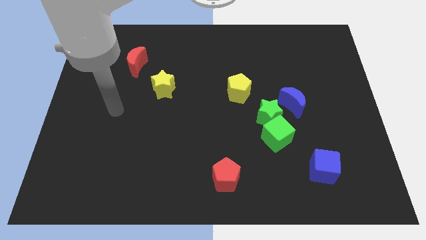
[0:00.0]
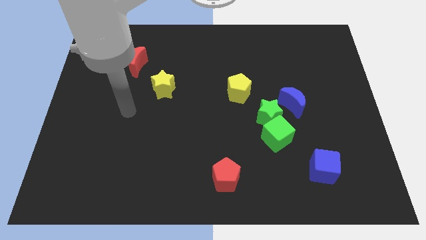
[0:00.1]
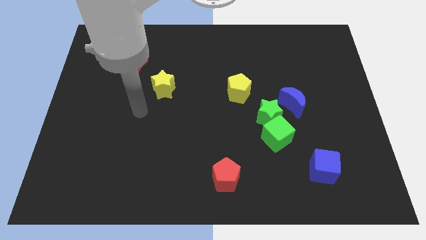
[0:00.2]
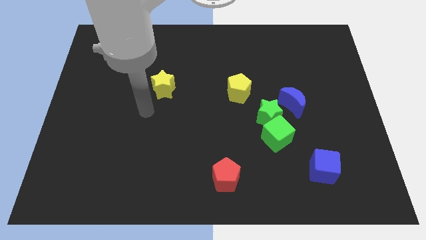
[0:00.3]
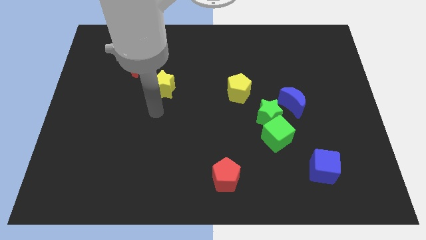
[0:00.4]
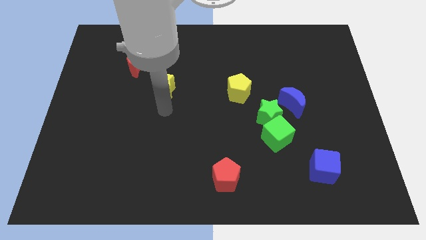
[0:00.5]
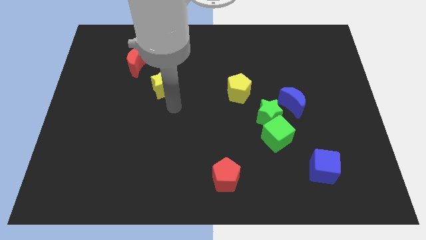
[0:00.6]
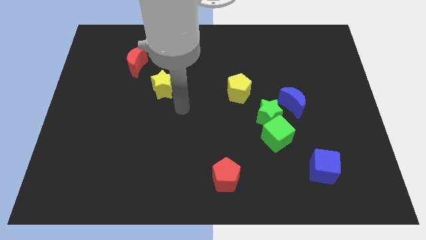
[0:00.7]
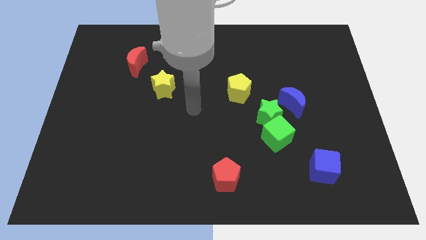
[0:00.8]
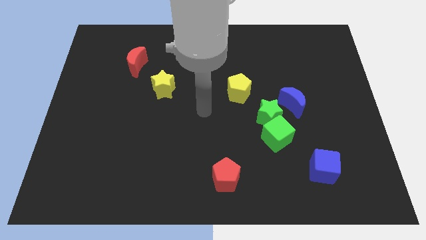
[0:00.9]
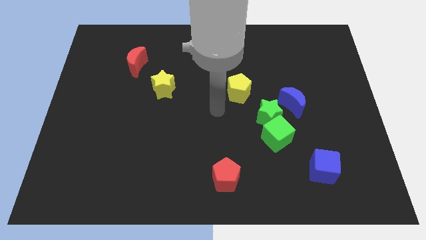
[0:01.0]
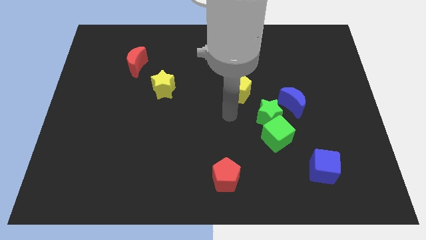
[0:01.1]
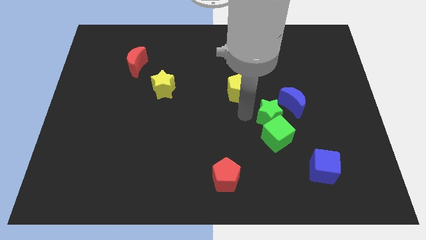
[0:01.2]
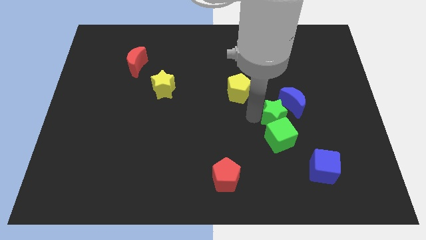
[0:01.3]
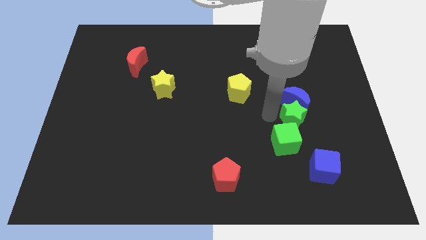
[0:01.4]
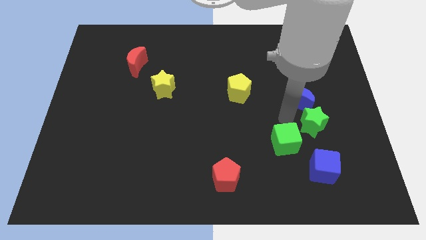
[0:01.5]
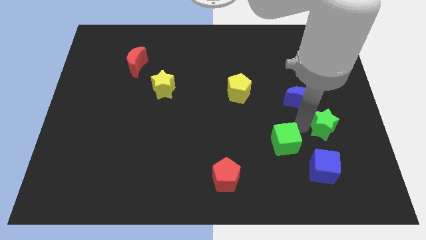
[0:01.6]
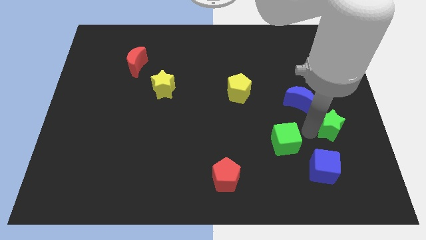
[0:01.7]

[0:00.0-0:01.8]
pull the green cube apart from the green star

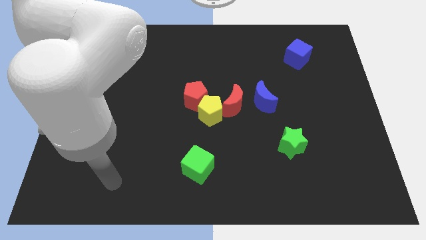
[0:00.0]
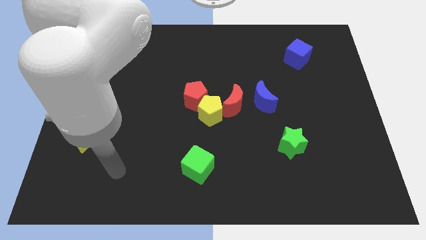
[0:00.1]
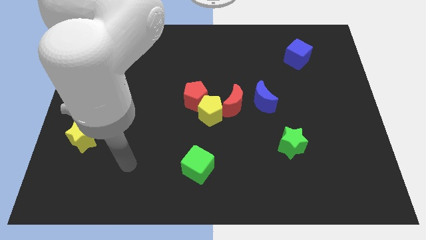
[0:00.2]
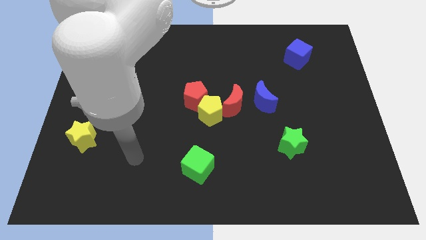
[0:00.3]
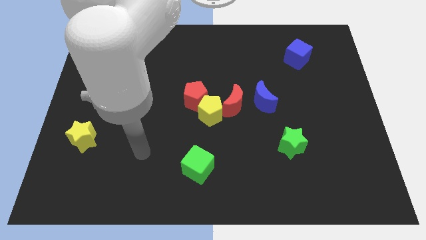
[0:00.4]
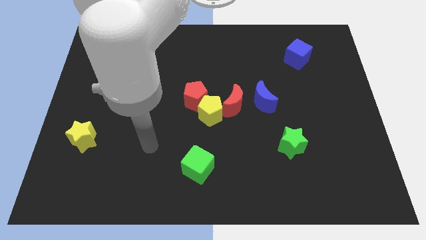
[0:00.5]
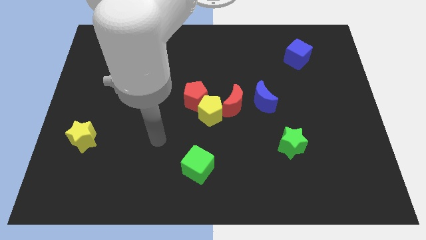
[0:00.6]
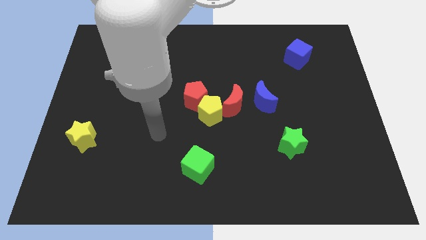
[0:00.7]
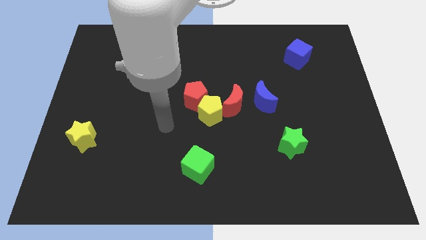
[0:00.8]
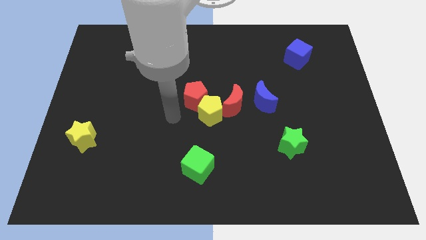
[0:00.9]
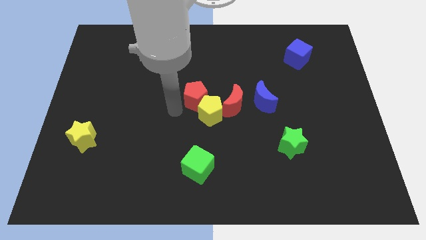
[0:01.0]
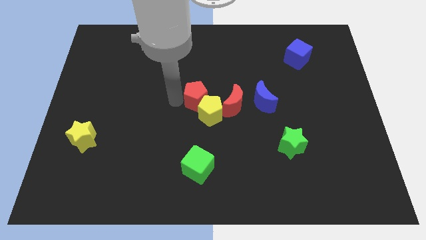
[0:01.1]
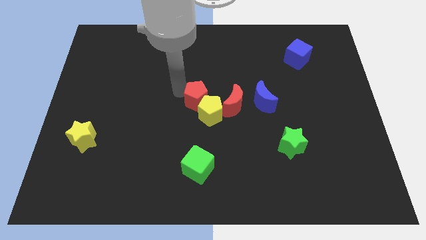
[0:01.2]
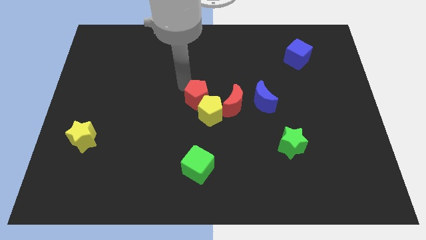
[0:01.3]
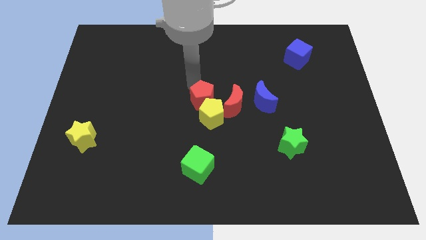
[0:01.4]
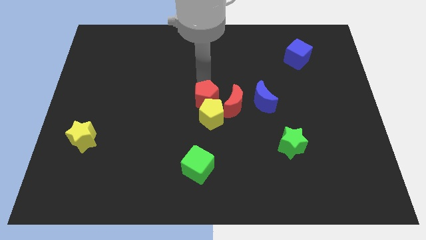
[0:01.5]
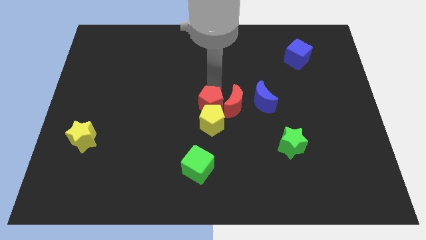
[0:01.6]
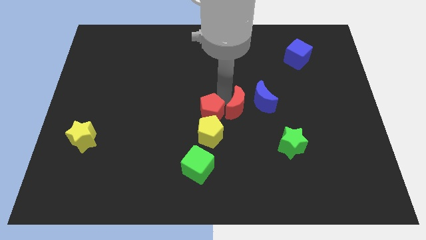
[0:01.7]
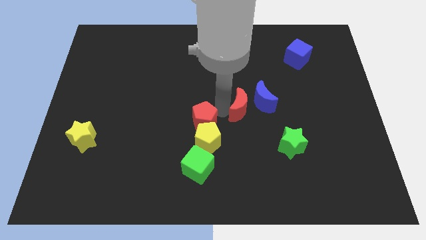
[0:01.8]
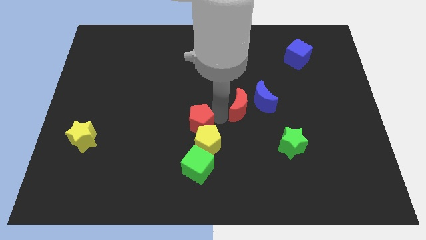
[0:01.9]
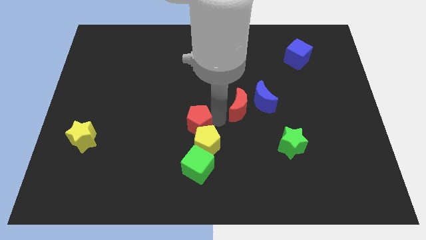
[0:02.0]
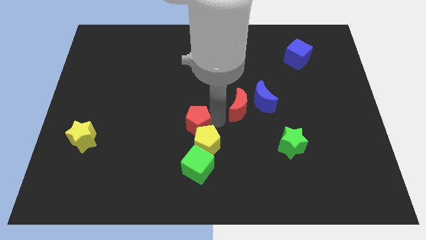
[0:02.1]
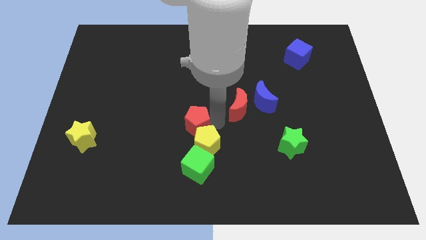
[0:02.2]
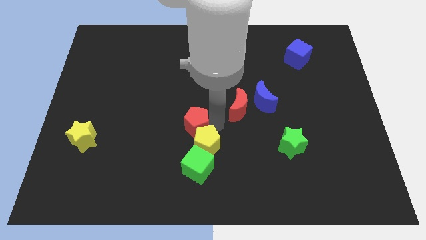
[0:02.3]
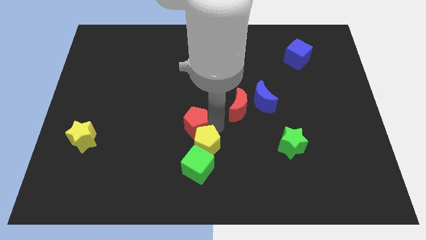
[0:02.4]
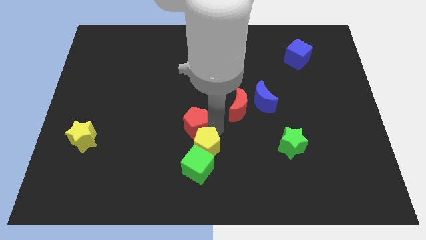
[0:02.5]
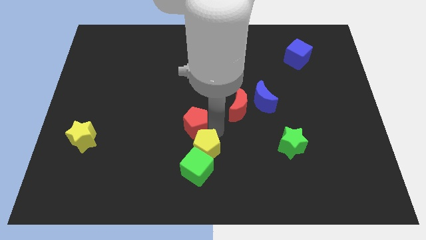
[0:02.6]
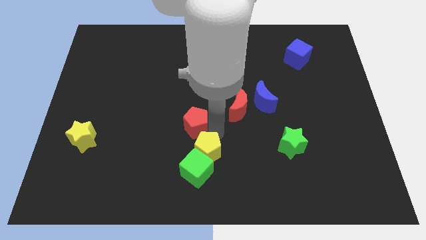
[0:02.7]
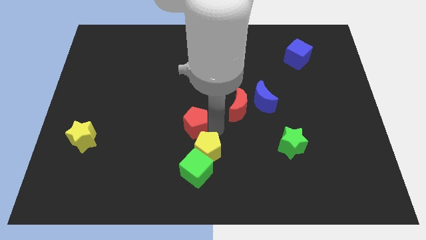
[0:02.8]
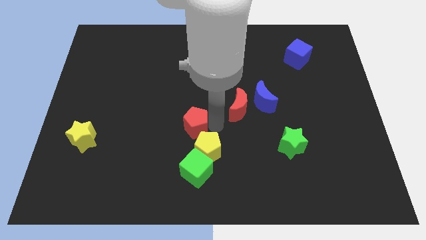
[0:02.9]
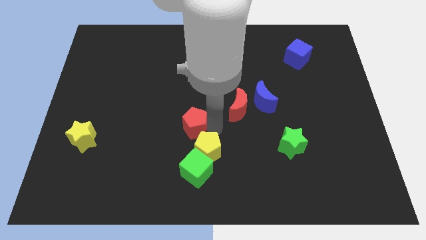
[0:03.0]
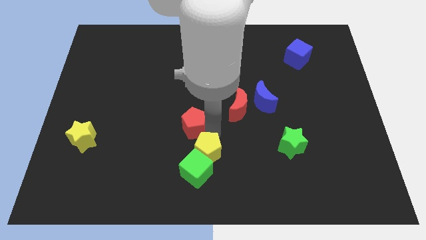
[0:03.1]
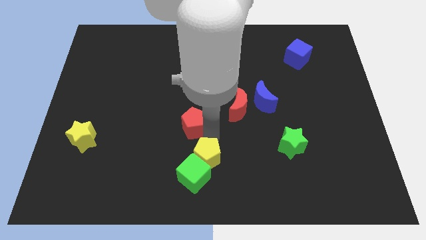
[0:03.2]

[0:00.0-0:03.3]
separate the yellow pentagon from the red pentagon and red moon

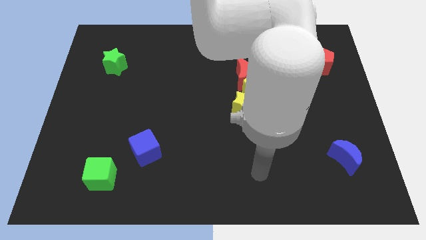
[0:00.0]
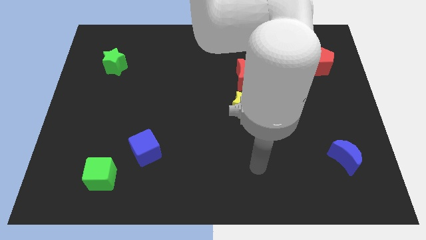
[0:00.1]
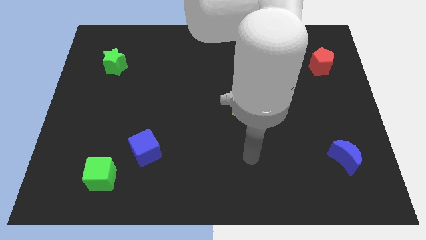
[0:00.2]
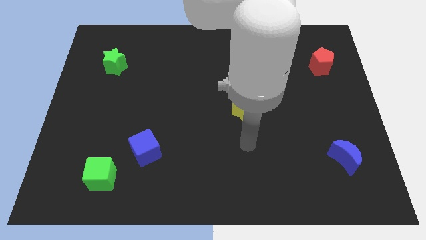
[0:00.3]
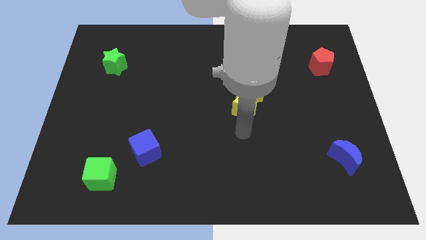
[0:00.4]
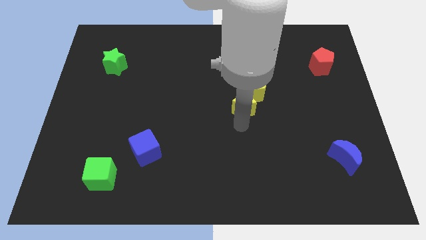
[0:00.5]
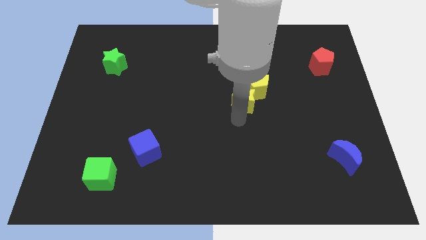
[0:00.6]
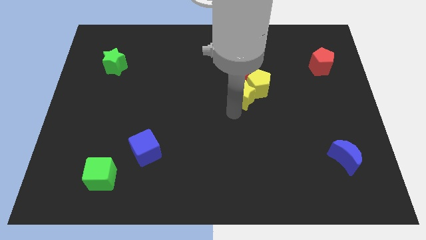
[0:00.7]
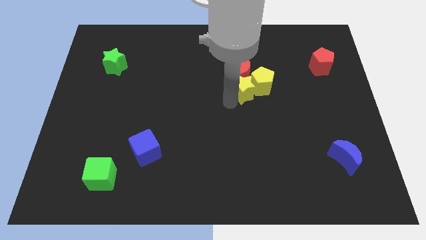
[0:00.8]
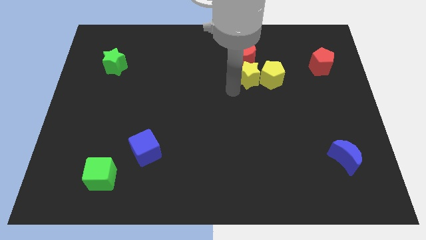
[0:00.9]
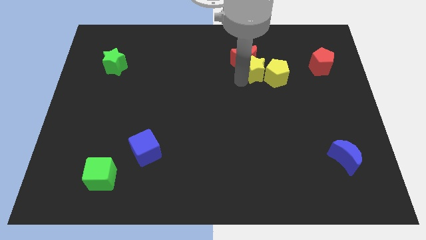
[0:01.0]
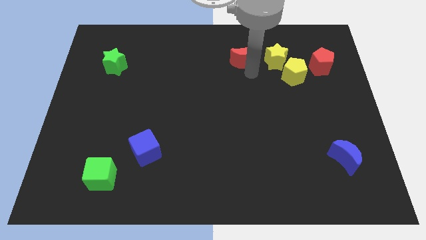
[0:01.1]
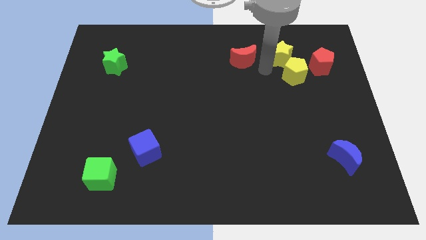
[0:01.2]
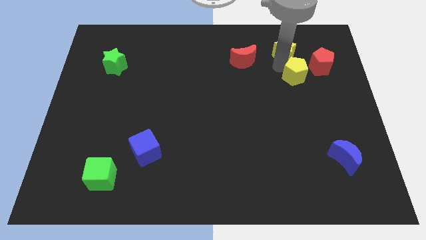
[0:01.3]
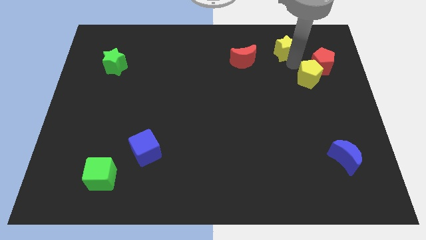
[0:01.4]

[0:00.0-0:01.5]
move the yellow pentagon away from the red moon and yellow star

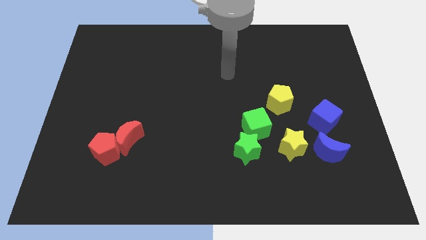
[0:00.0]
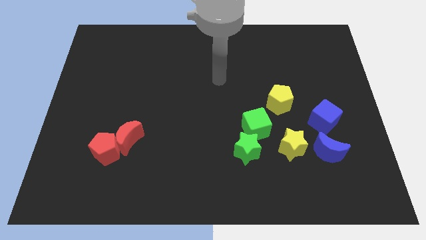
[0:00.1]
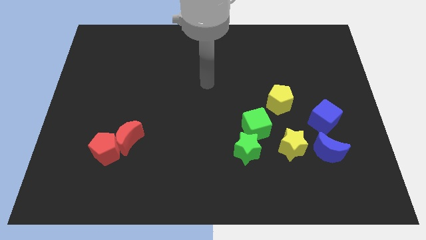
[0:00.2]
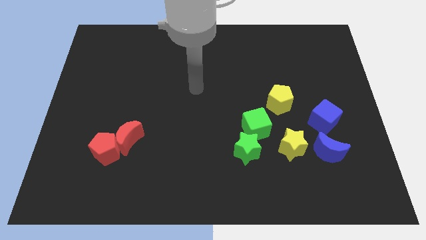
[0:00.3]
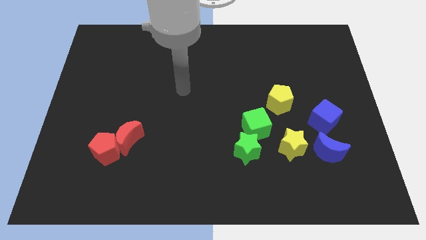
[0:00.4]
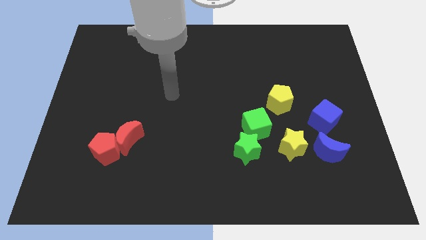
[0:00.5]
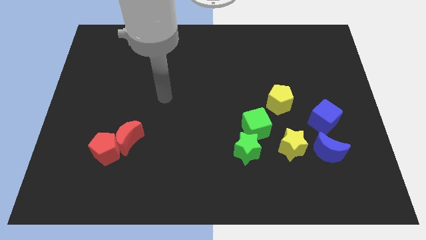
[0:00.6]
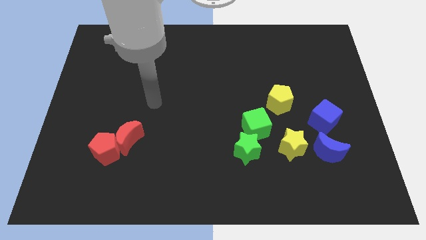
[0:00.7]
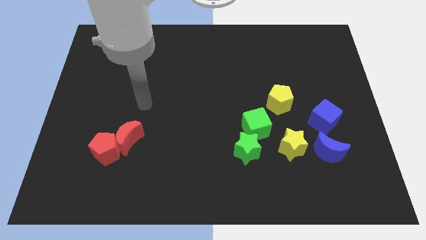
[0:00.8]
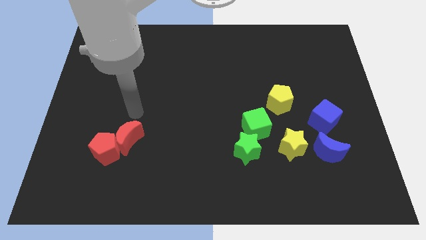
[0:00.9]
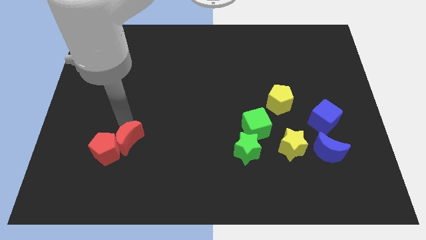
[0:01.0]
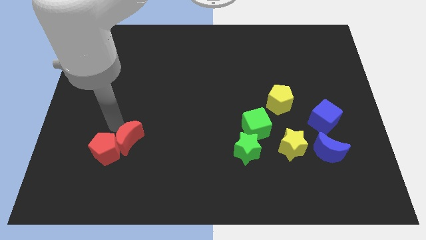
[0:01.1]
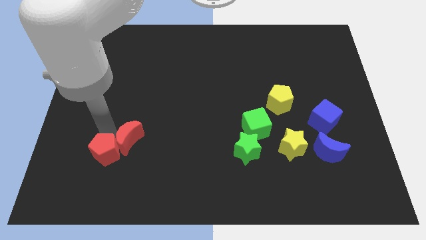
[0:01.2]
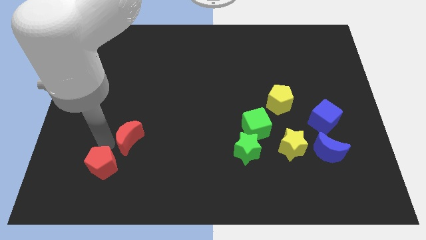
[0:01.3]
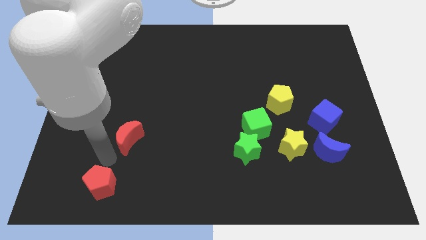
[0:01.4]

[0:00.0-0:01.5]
separate the red moon from the red pentagon

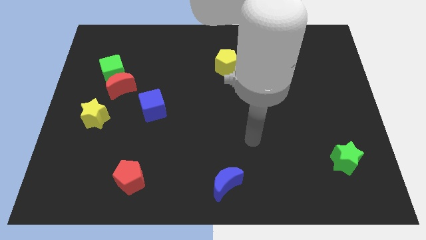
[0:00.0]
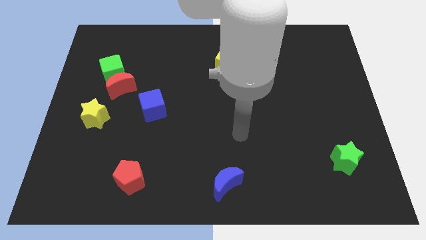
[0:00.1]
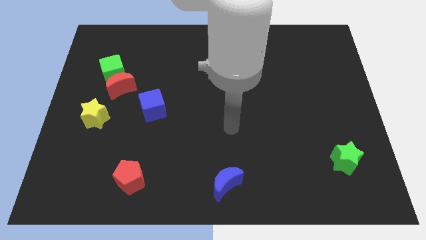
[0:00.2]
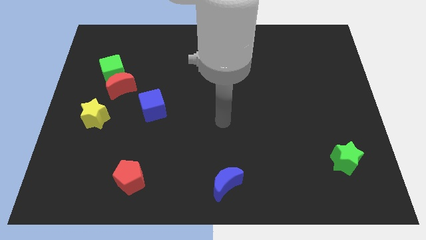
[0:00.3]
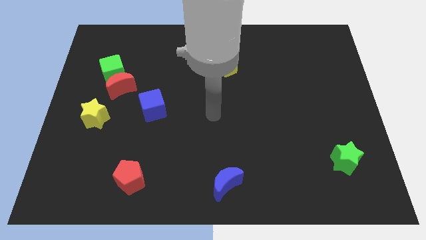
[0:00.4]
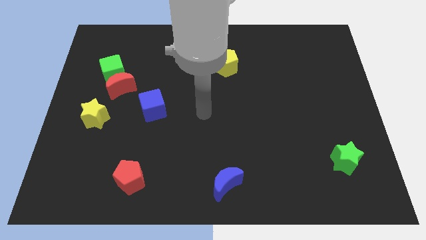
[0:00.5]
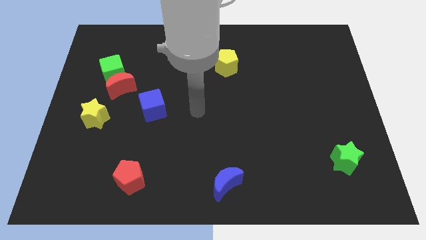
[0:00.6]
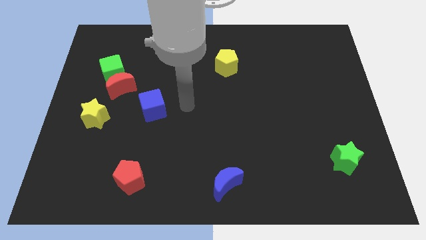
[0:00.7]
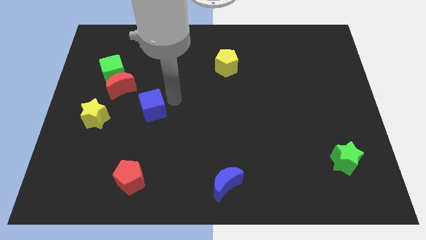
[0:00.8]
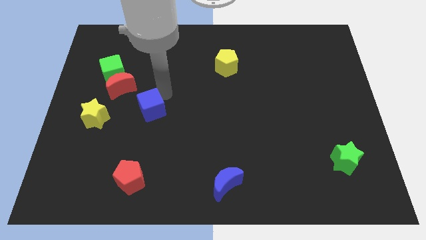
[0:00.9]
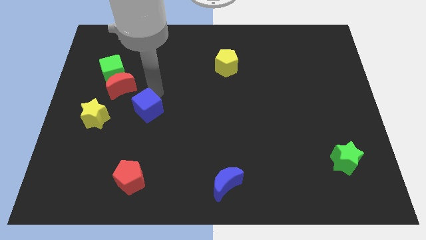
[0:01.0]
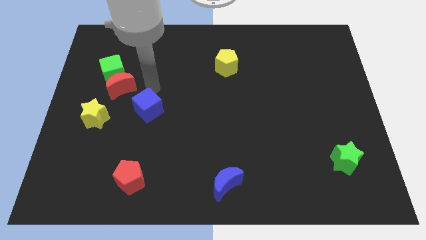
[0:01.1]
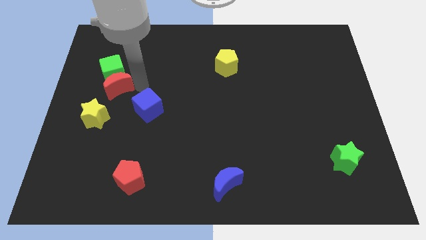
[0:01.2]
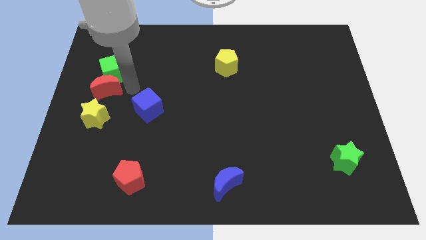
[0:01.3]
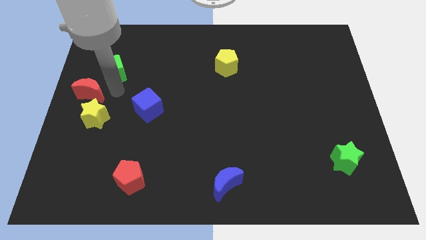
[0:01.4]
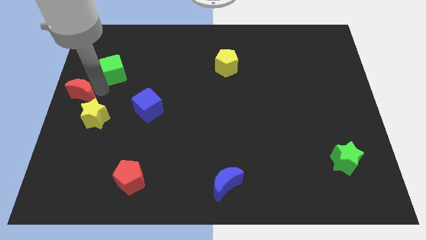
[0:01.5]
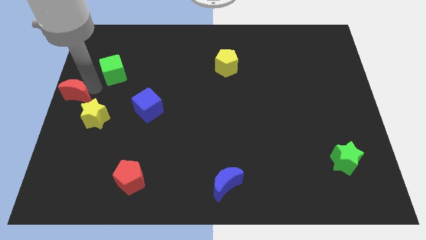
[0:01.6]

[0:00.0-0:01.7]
pull the green cube apart from the red moon
